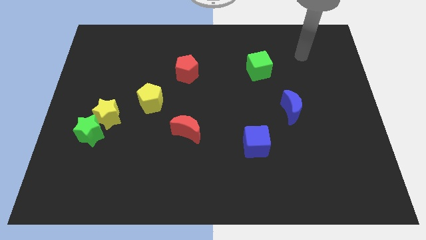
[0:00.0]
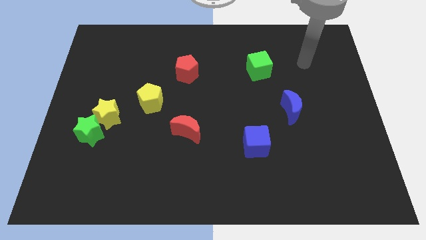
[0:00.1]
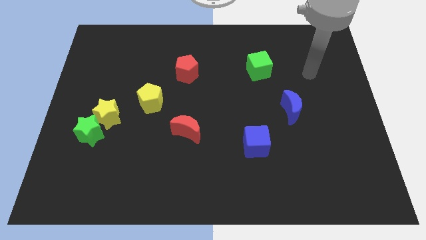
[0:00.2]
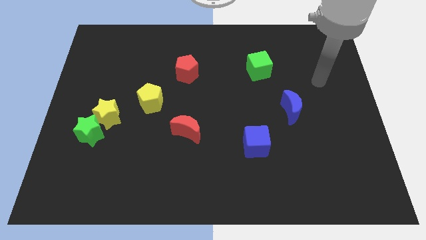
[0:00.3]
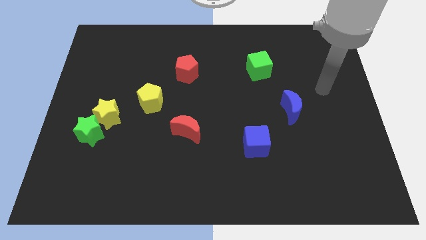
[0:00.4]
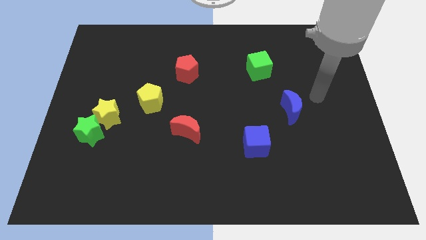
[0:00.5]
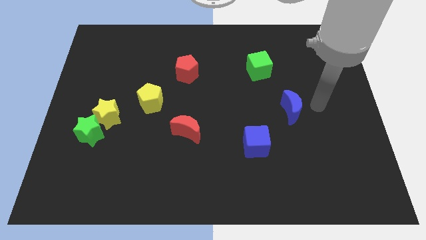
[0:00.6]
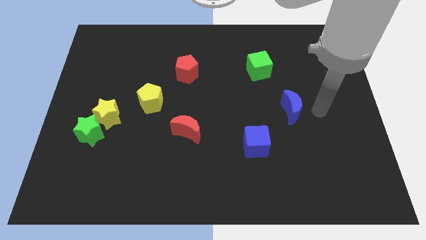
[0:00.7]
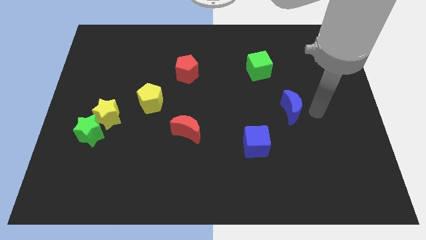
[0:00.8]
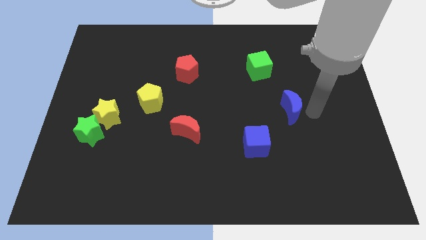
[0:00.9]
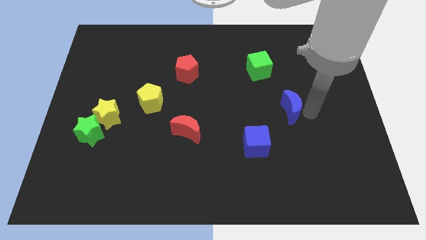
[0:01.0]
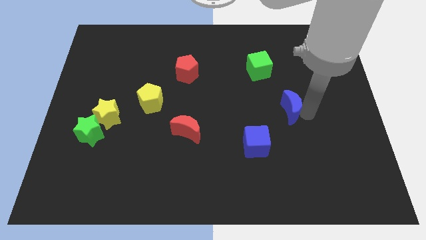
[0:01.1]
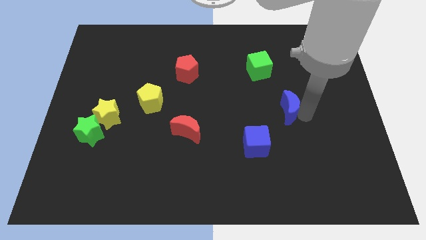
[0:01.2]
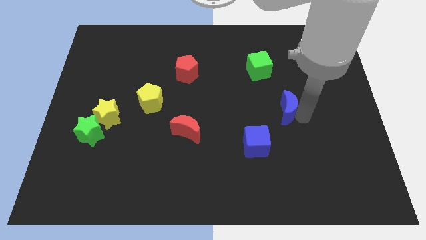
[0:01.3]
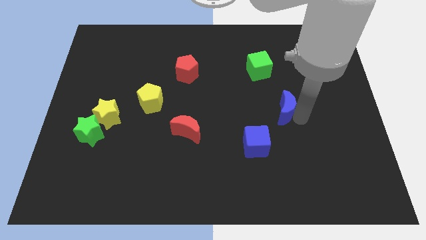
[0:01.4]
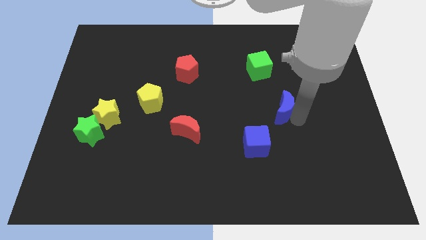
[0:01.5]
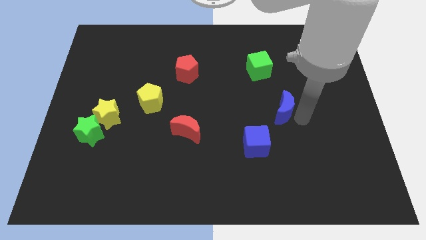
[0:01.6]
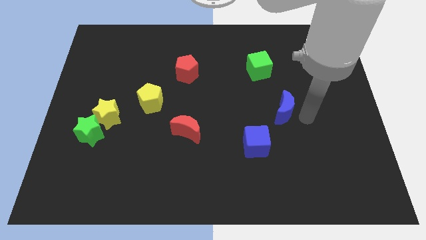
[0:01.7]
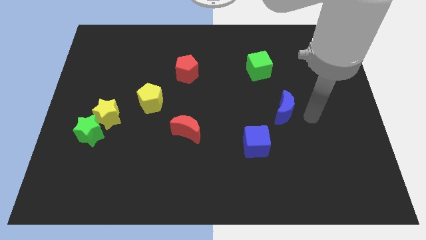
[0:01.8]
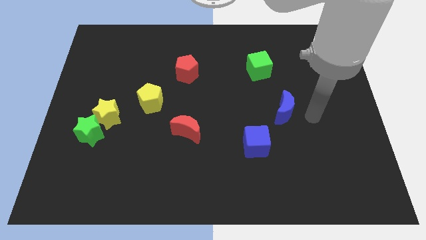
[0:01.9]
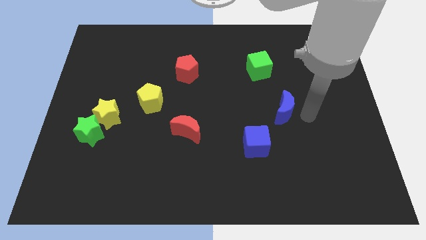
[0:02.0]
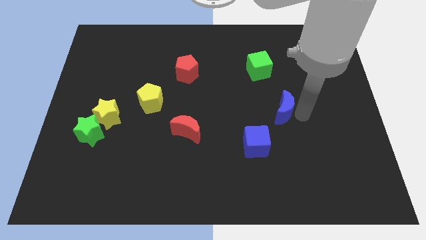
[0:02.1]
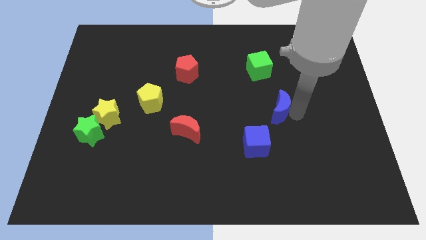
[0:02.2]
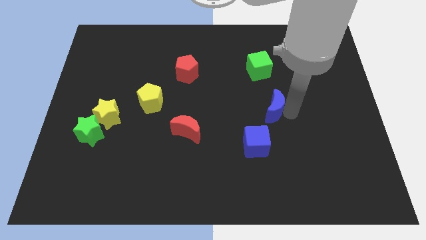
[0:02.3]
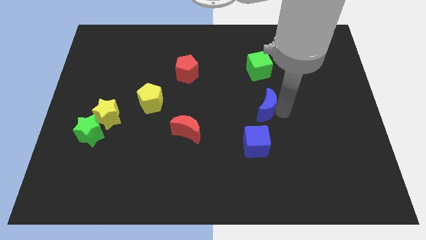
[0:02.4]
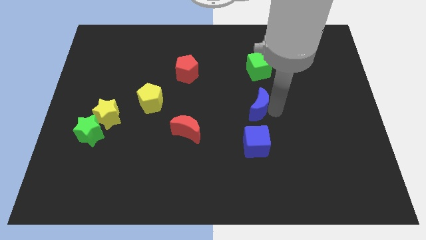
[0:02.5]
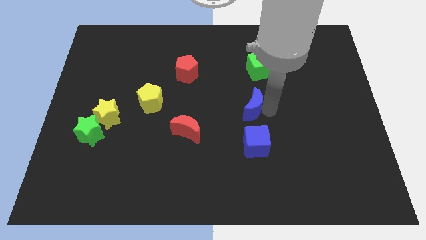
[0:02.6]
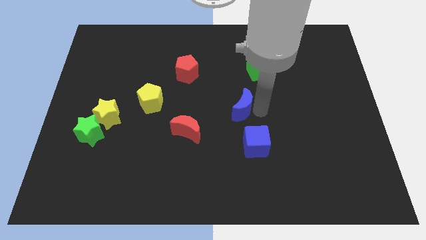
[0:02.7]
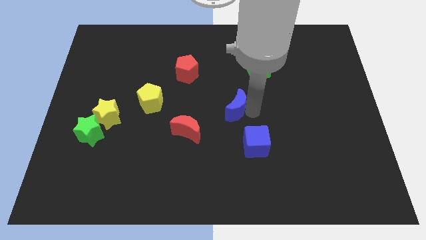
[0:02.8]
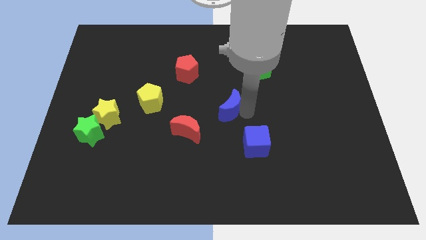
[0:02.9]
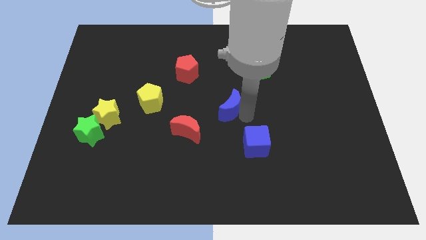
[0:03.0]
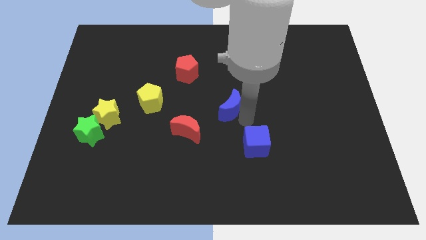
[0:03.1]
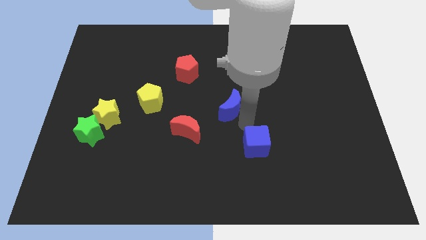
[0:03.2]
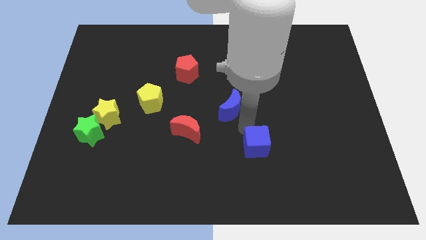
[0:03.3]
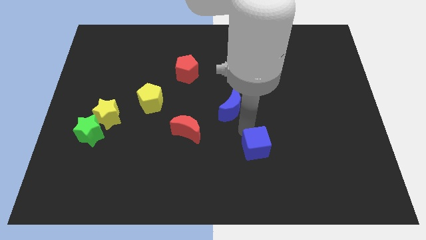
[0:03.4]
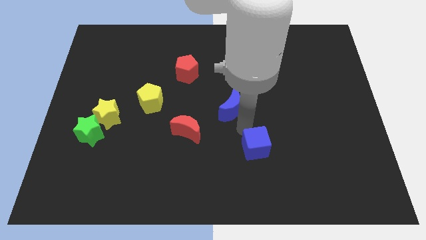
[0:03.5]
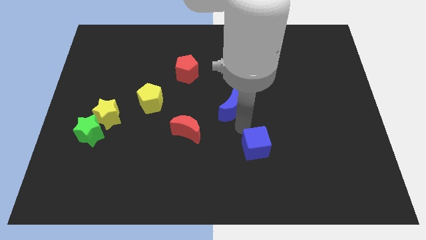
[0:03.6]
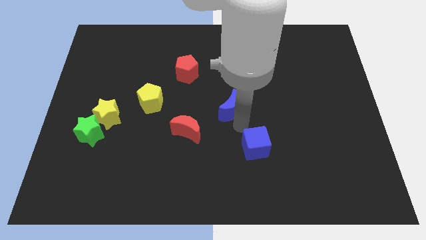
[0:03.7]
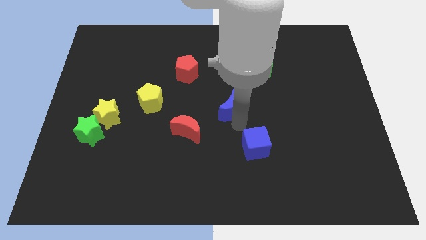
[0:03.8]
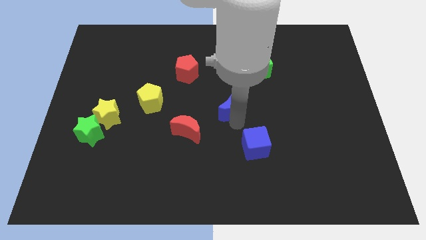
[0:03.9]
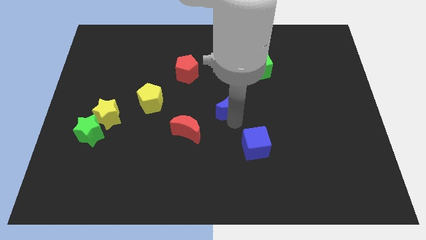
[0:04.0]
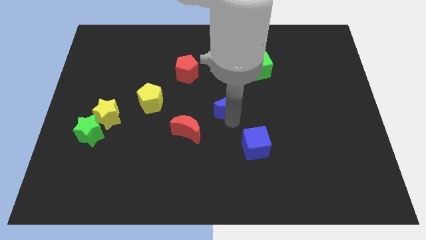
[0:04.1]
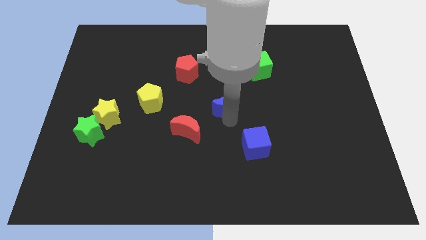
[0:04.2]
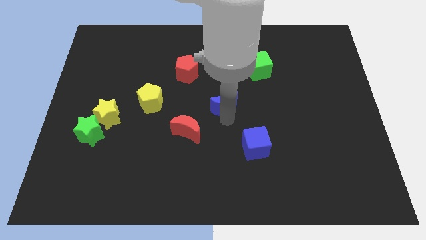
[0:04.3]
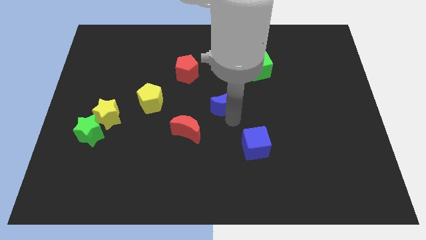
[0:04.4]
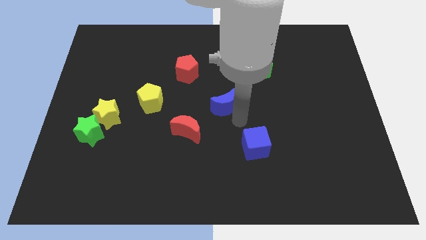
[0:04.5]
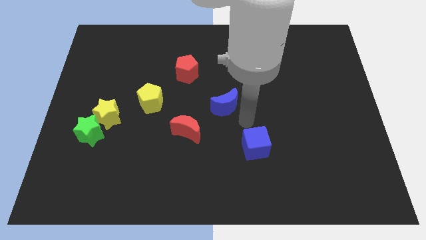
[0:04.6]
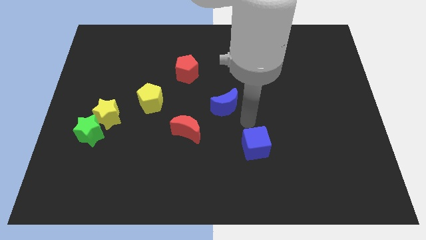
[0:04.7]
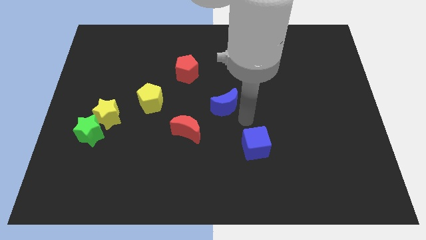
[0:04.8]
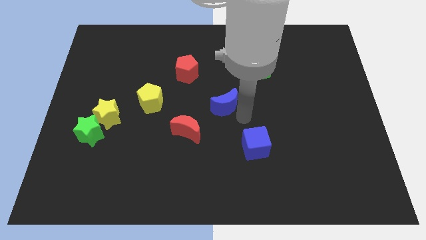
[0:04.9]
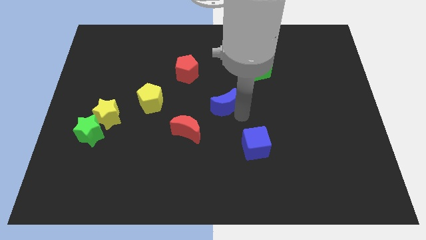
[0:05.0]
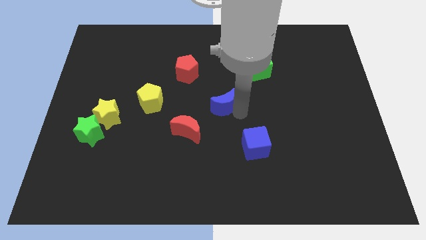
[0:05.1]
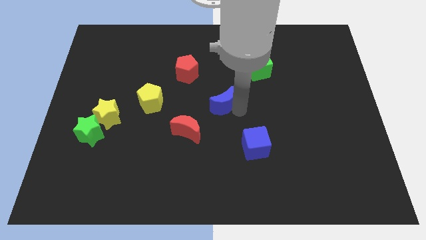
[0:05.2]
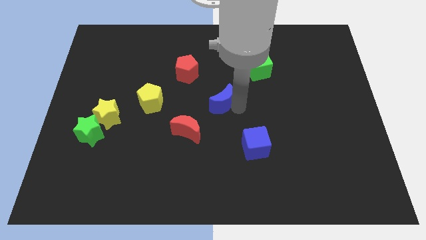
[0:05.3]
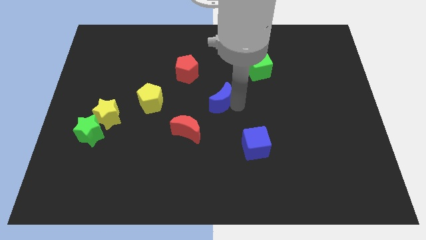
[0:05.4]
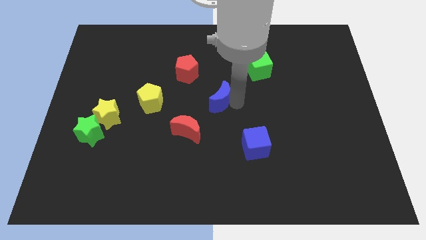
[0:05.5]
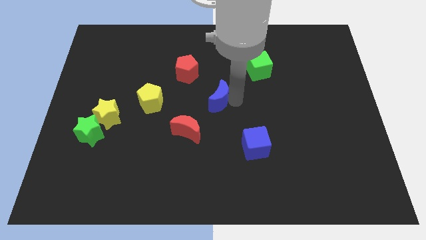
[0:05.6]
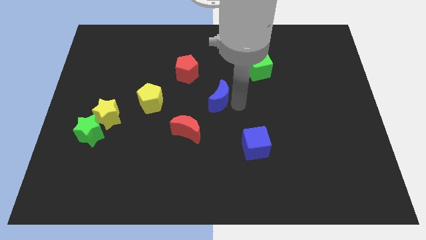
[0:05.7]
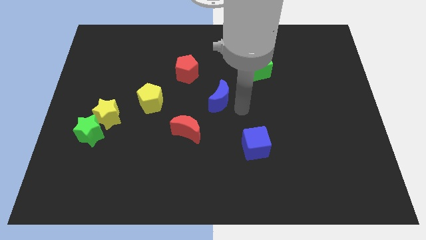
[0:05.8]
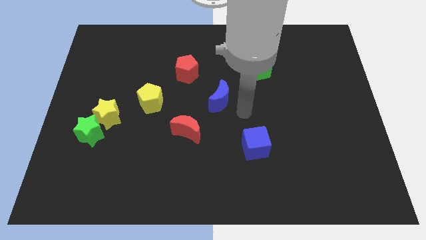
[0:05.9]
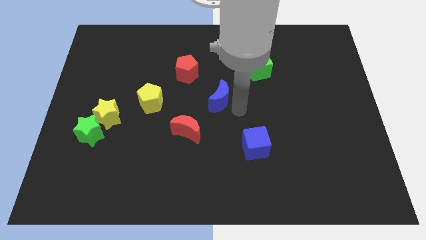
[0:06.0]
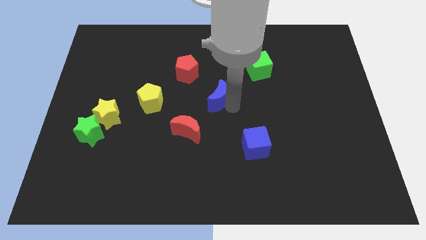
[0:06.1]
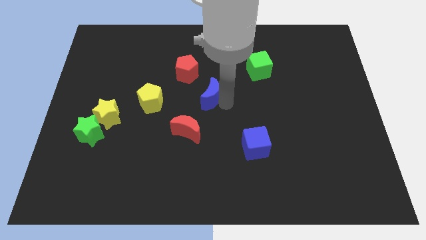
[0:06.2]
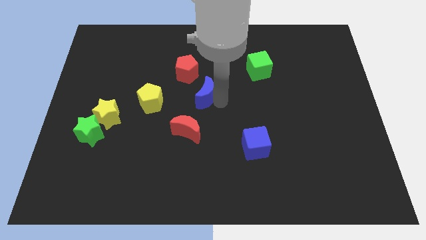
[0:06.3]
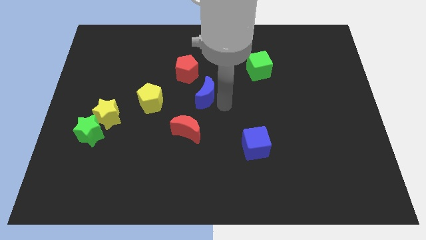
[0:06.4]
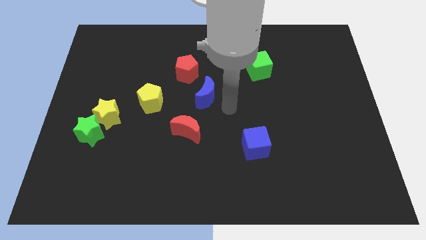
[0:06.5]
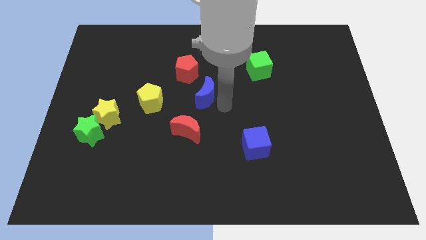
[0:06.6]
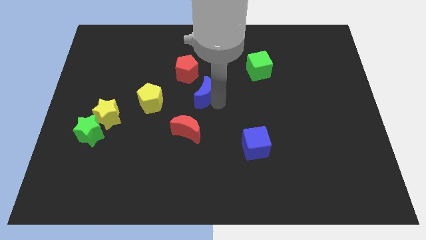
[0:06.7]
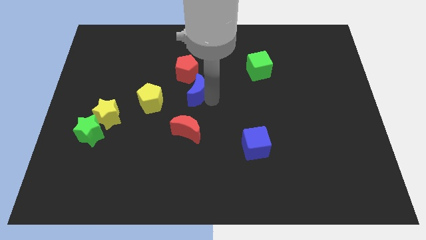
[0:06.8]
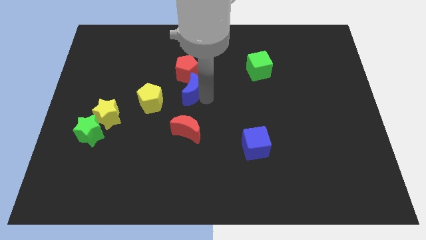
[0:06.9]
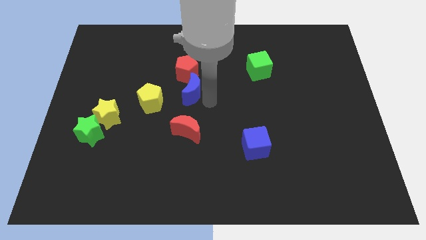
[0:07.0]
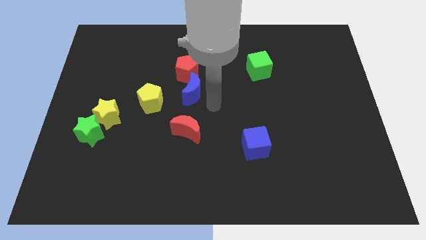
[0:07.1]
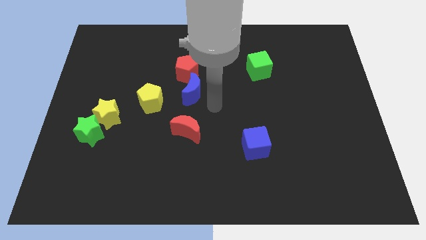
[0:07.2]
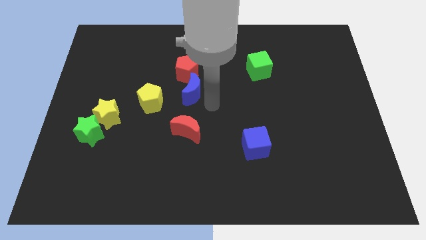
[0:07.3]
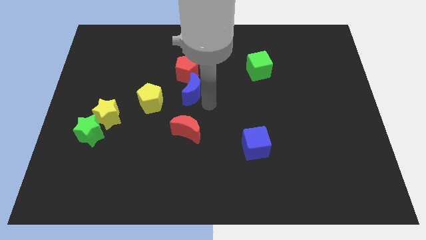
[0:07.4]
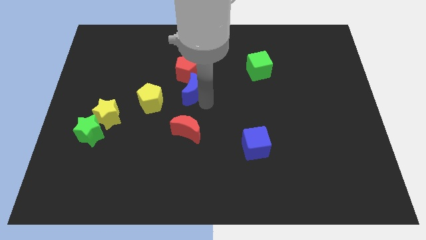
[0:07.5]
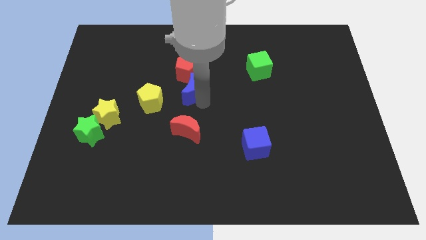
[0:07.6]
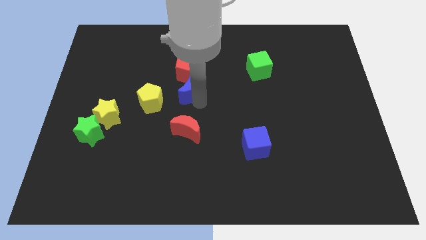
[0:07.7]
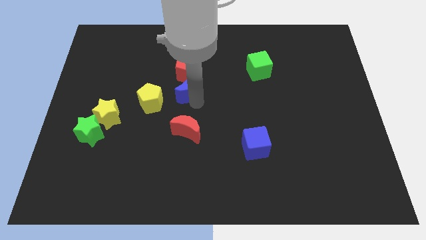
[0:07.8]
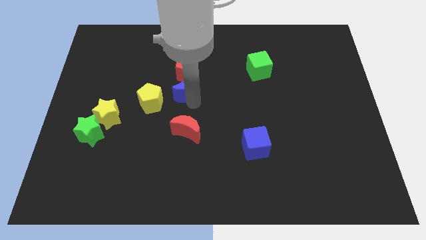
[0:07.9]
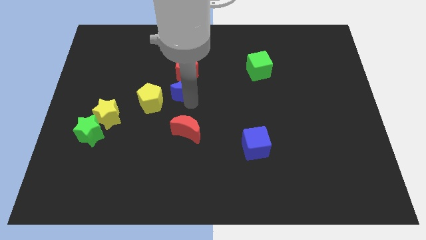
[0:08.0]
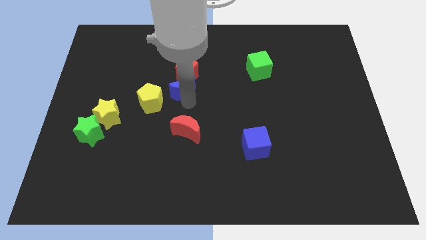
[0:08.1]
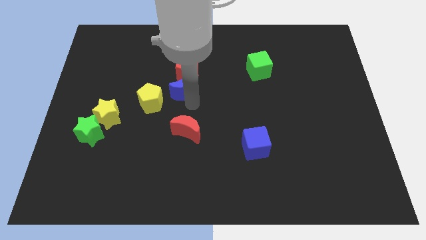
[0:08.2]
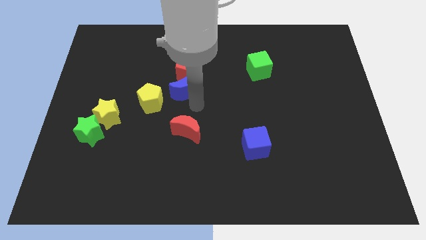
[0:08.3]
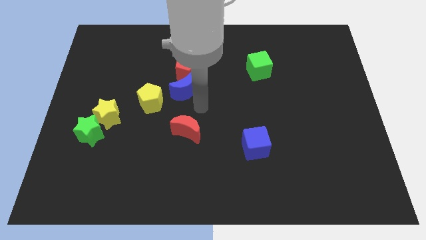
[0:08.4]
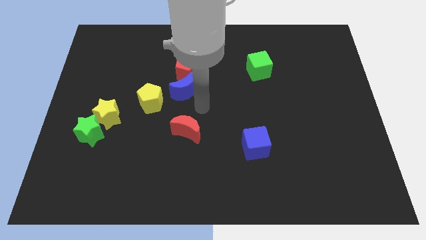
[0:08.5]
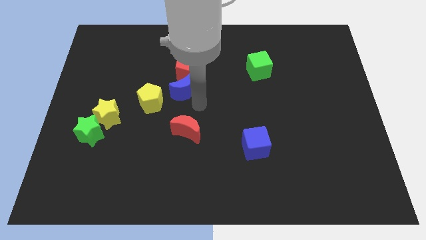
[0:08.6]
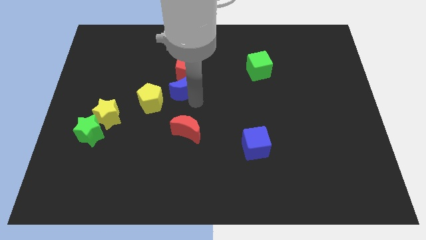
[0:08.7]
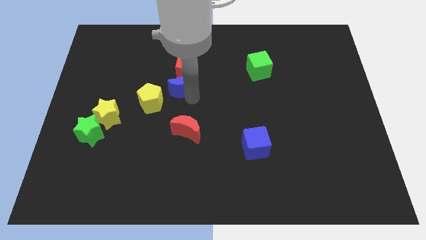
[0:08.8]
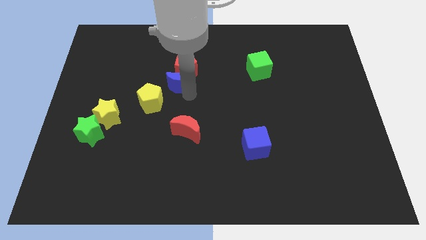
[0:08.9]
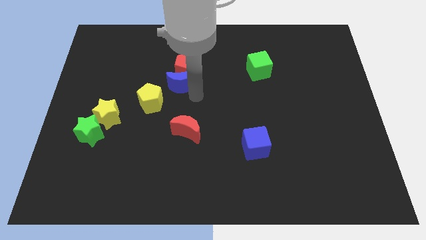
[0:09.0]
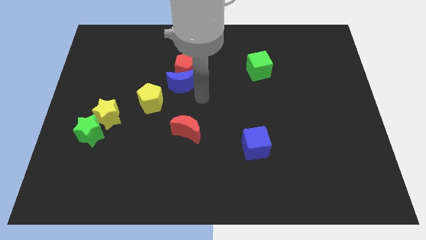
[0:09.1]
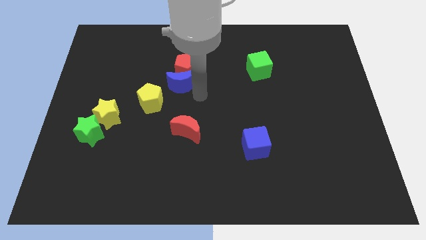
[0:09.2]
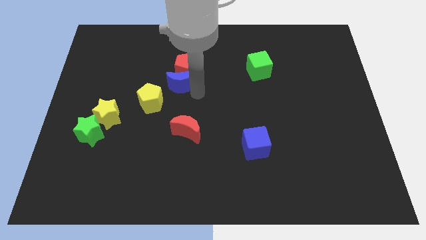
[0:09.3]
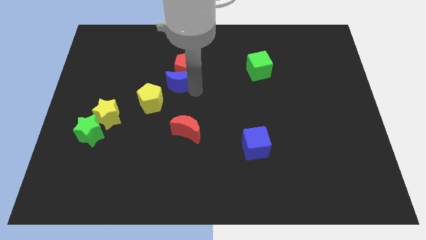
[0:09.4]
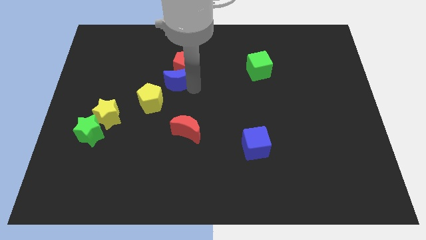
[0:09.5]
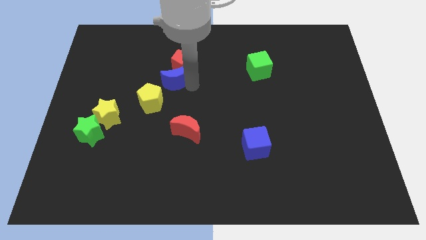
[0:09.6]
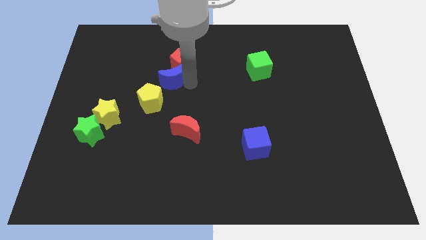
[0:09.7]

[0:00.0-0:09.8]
slide the blue moon above the yellow pentagon
